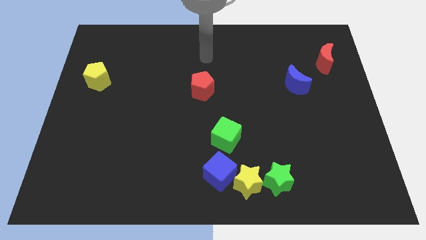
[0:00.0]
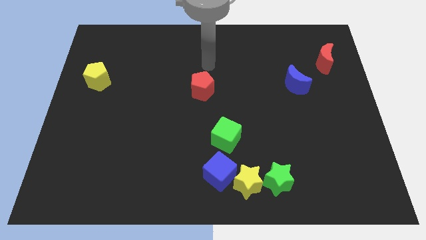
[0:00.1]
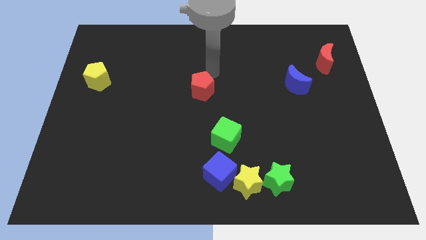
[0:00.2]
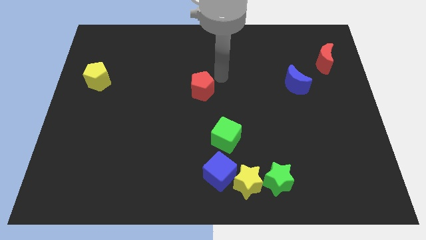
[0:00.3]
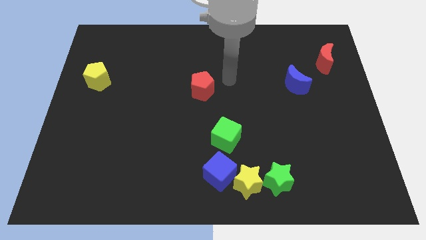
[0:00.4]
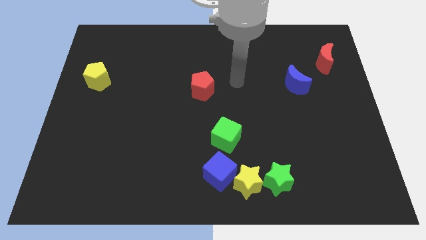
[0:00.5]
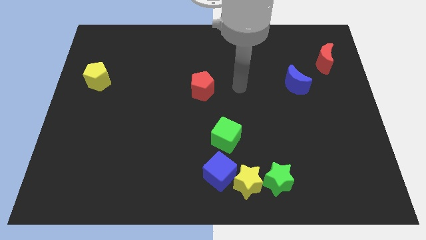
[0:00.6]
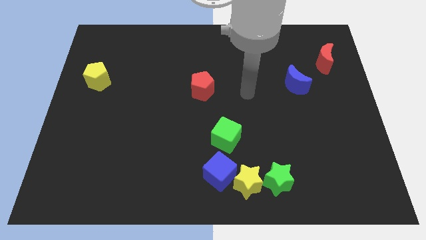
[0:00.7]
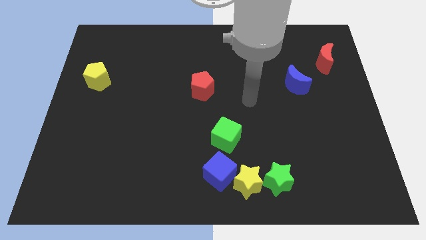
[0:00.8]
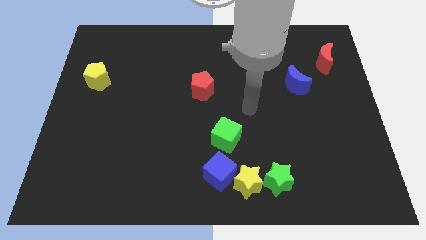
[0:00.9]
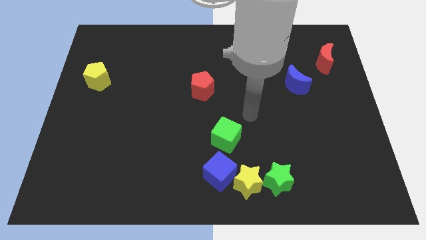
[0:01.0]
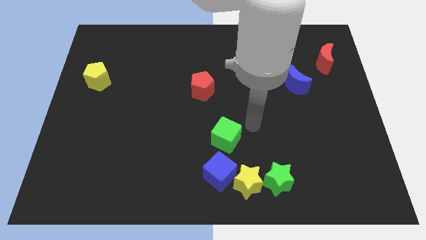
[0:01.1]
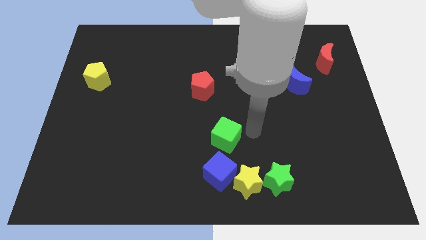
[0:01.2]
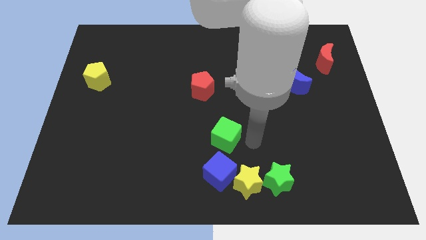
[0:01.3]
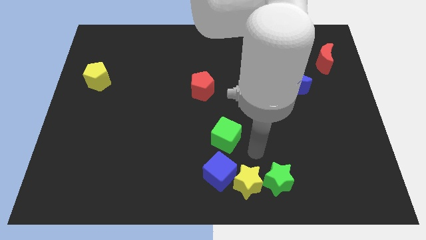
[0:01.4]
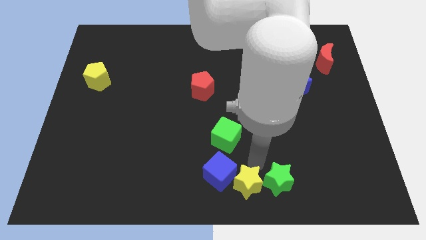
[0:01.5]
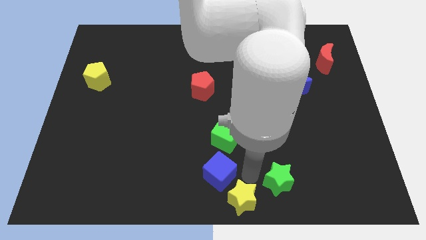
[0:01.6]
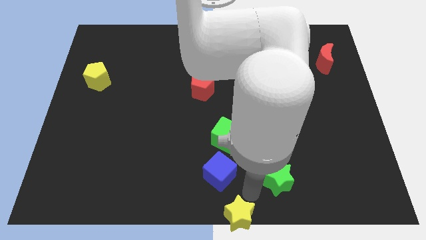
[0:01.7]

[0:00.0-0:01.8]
separate the green star from the yellow star

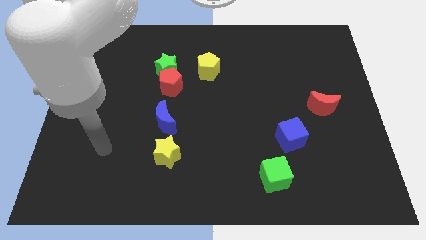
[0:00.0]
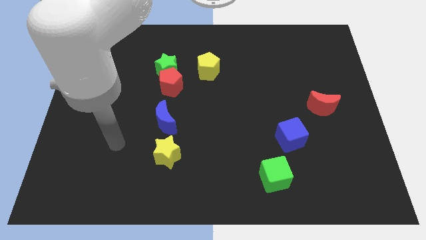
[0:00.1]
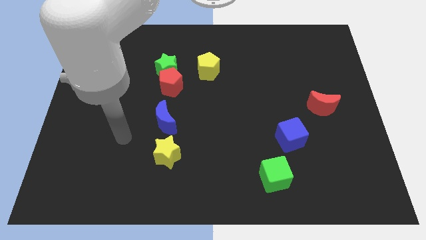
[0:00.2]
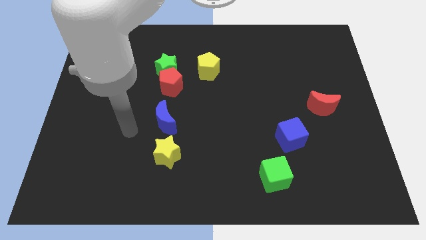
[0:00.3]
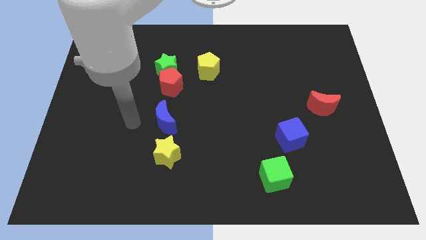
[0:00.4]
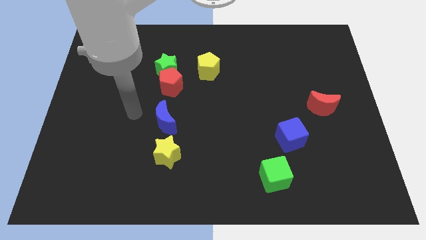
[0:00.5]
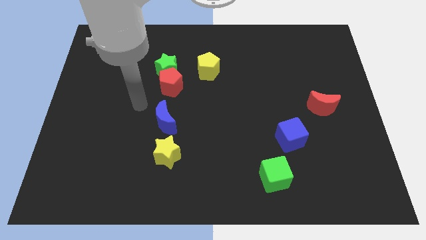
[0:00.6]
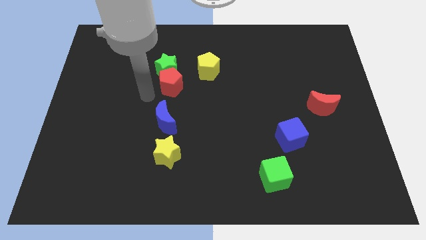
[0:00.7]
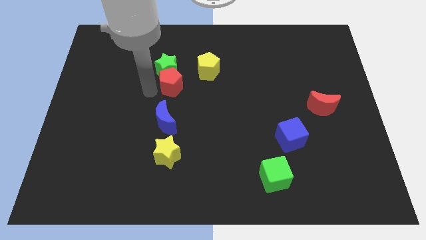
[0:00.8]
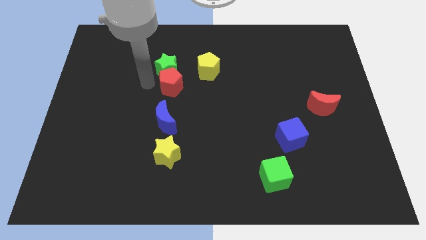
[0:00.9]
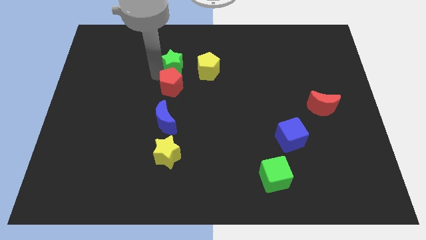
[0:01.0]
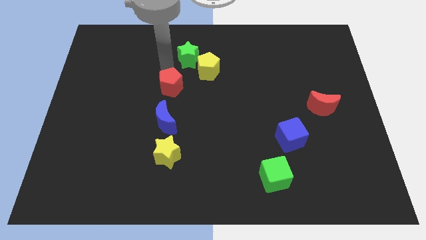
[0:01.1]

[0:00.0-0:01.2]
move the red pentagon away from the green star

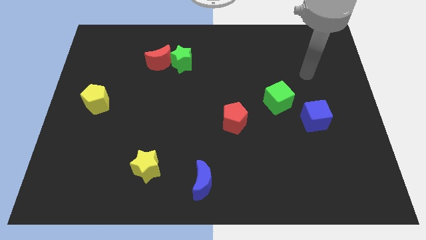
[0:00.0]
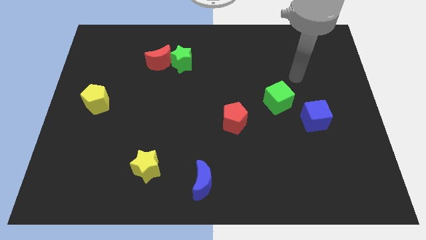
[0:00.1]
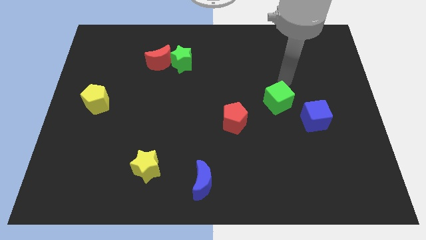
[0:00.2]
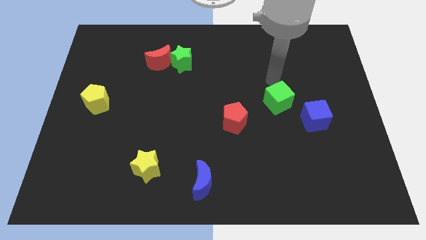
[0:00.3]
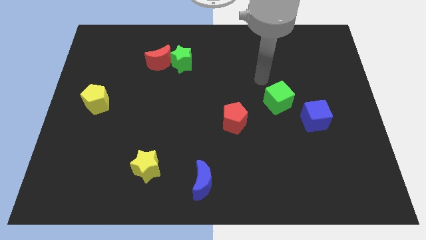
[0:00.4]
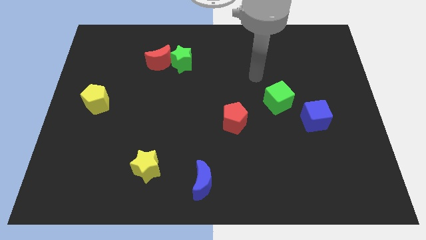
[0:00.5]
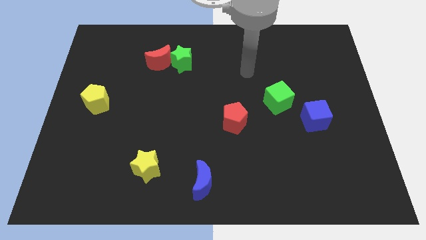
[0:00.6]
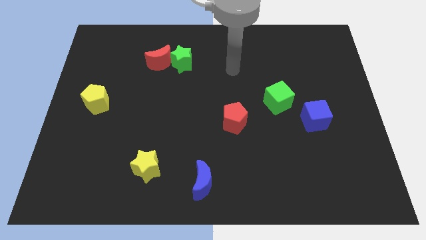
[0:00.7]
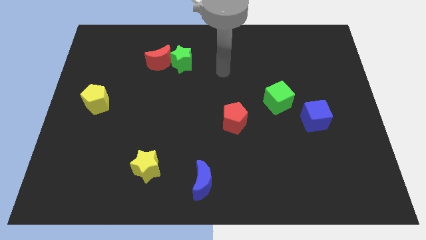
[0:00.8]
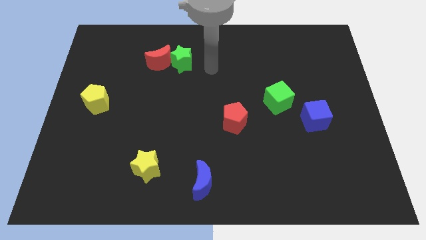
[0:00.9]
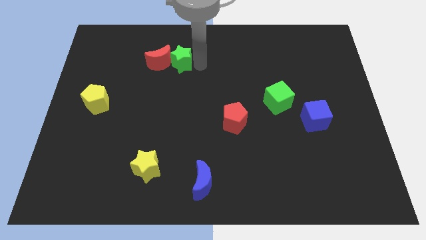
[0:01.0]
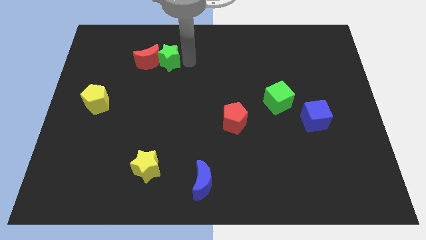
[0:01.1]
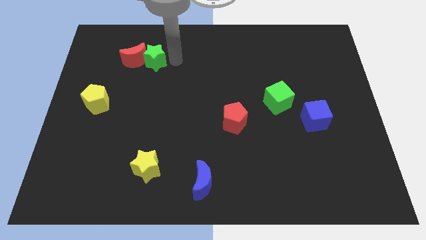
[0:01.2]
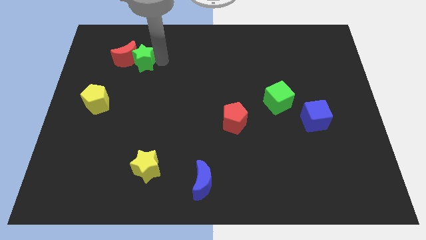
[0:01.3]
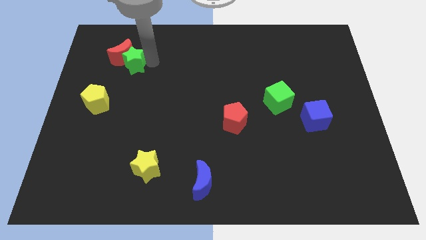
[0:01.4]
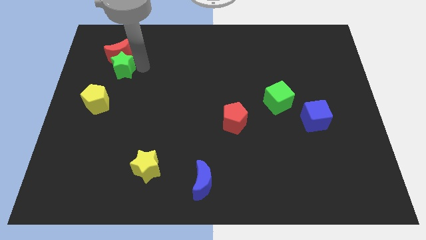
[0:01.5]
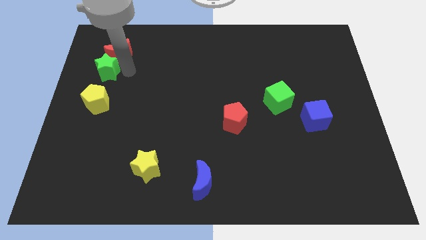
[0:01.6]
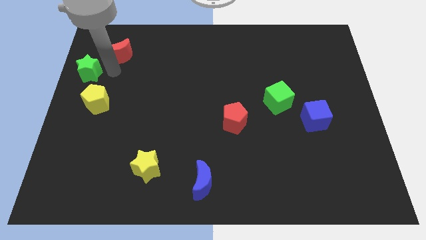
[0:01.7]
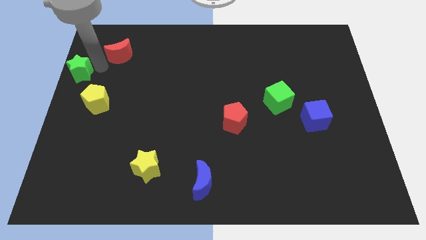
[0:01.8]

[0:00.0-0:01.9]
pull the red moon apart from the green star

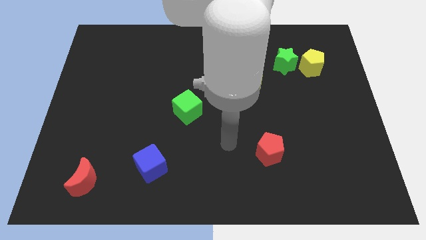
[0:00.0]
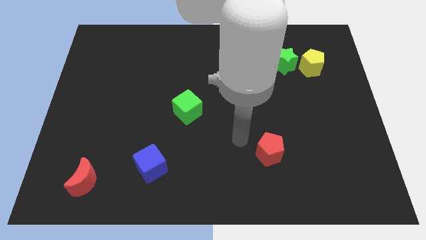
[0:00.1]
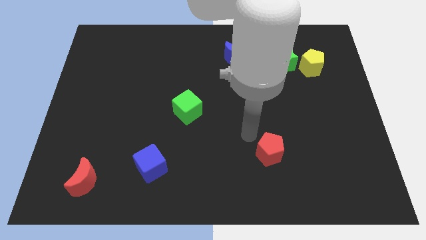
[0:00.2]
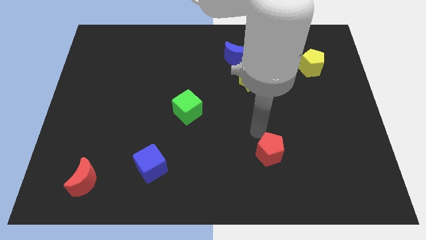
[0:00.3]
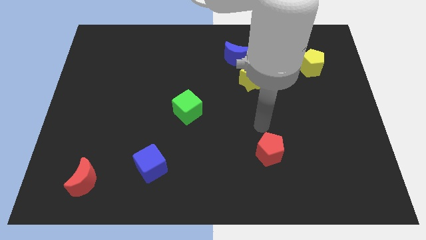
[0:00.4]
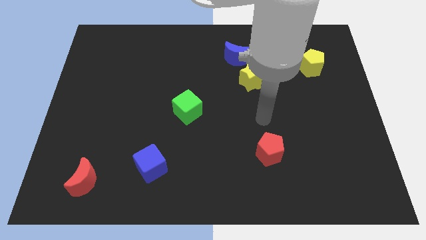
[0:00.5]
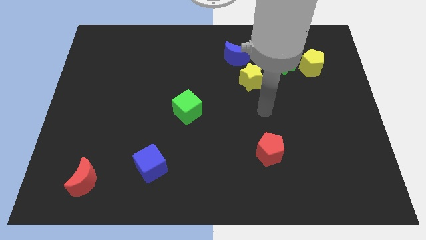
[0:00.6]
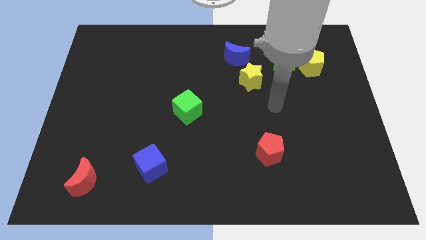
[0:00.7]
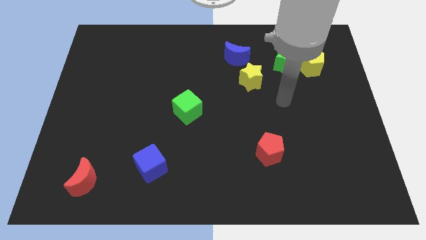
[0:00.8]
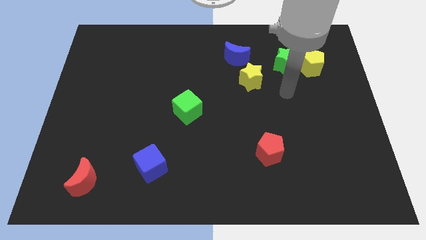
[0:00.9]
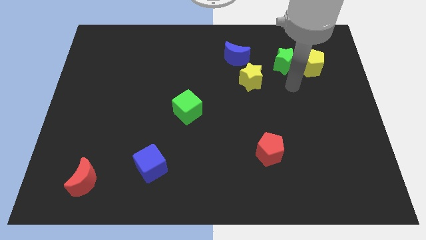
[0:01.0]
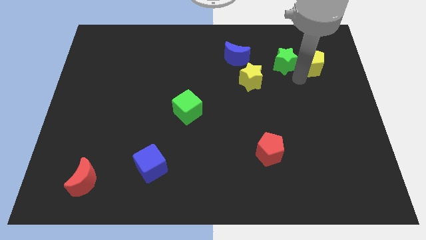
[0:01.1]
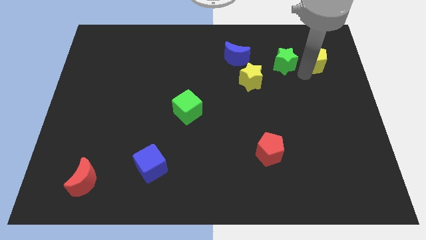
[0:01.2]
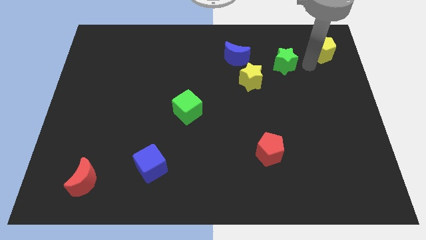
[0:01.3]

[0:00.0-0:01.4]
move the green star away from the yellow pentagon

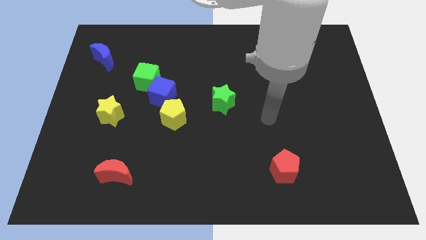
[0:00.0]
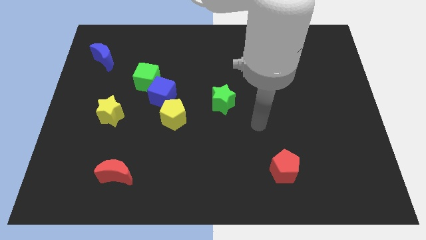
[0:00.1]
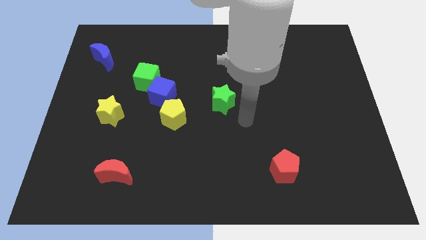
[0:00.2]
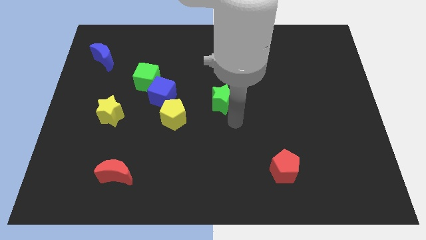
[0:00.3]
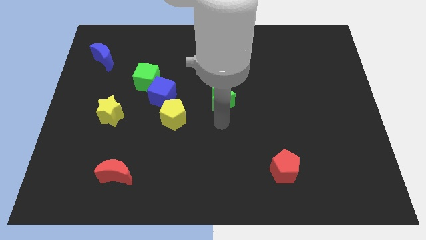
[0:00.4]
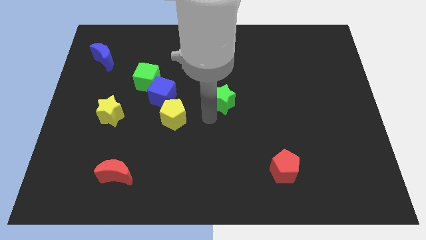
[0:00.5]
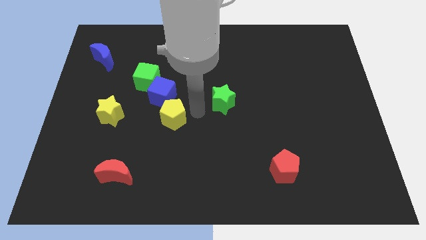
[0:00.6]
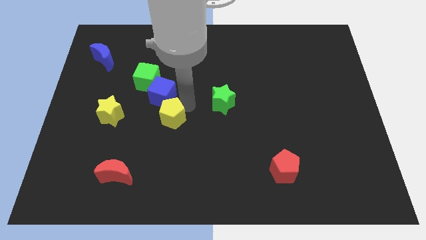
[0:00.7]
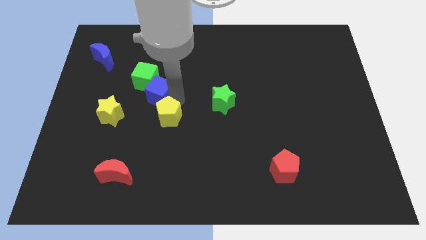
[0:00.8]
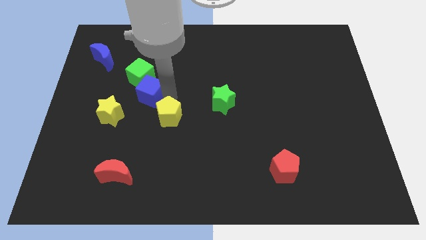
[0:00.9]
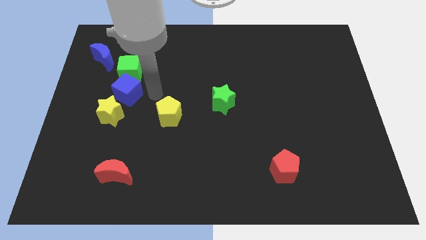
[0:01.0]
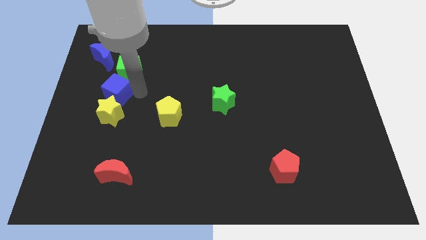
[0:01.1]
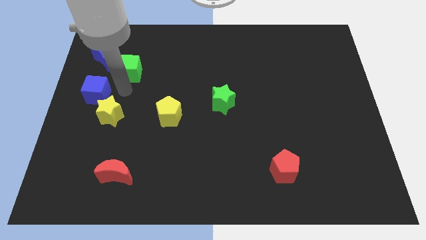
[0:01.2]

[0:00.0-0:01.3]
separate the green cube from the blue cube

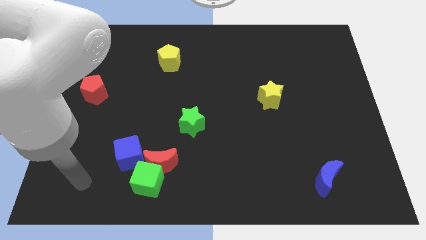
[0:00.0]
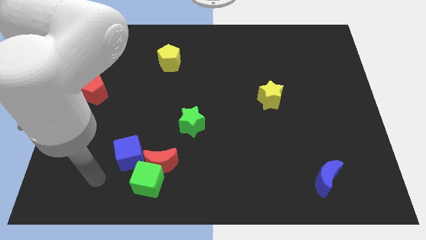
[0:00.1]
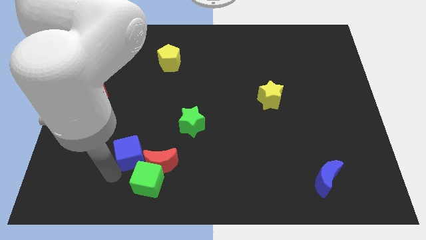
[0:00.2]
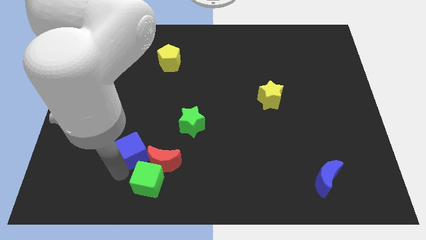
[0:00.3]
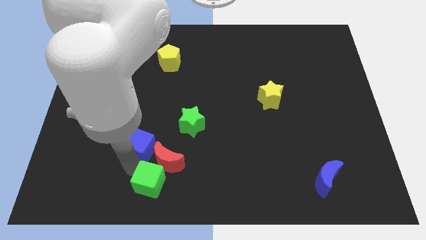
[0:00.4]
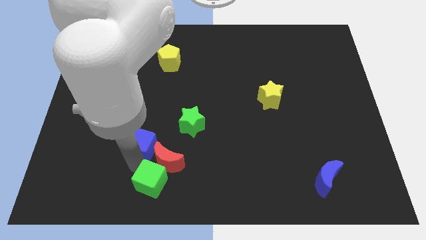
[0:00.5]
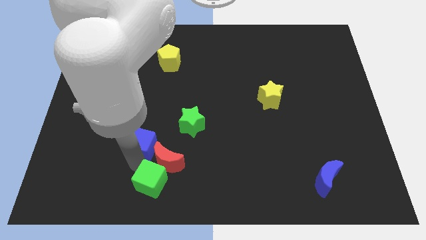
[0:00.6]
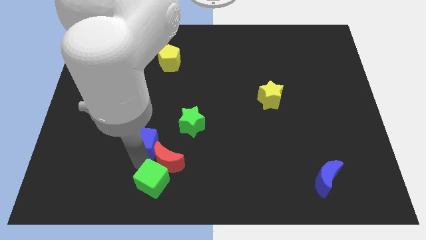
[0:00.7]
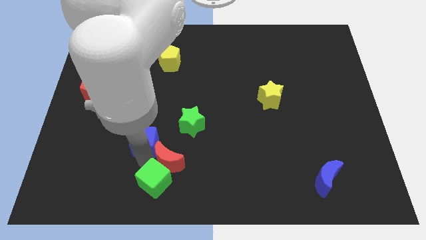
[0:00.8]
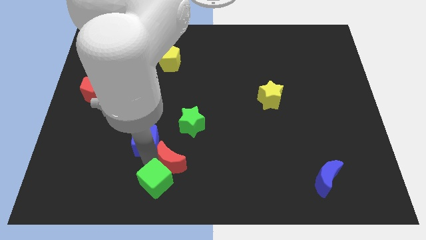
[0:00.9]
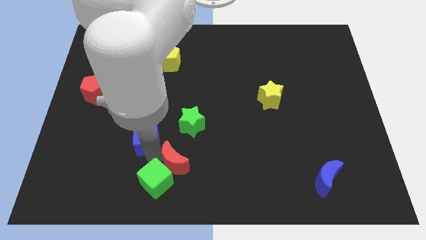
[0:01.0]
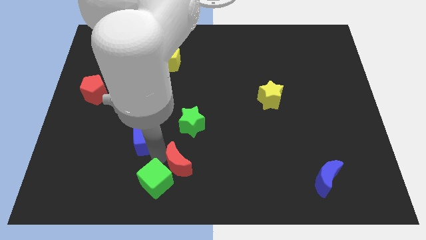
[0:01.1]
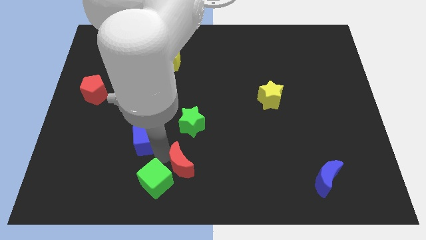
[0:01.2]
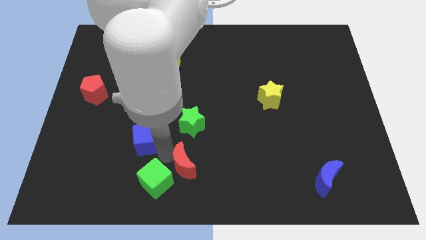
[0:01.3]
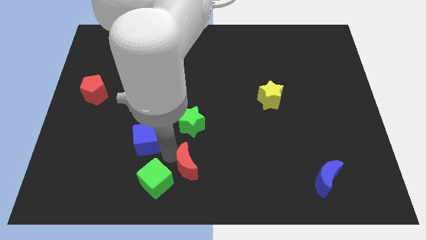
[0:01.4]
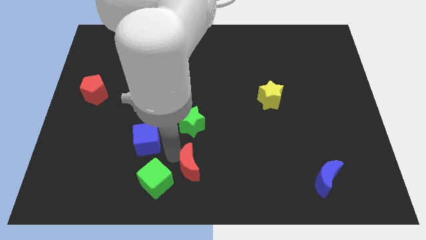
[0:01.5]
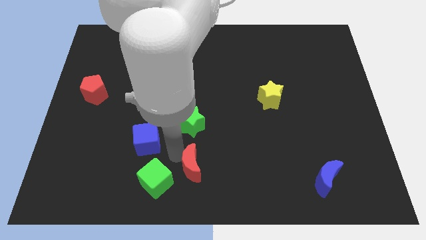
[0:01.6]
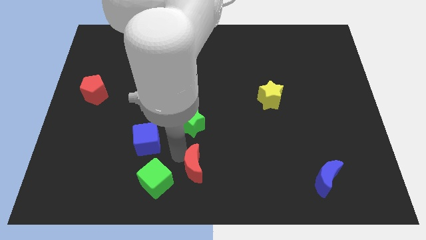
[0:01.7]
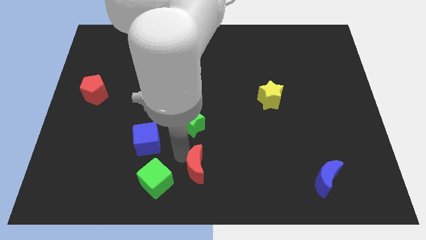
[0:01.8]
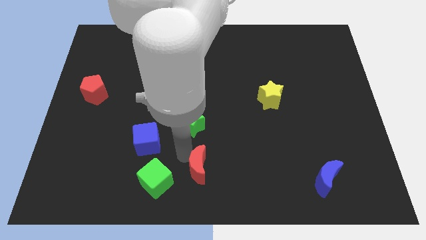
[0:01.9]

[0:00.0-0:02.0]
pull the red moon apart from the green cube and blue cube
